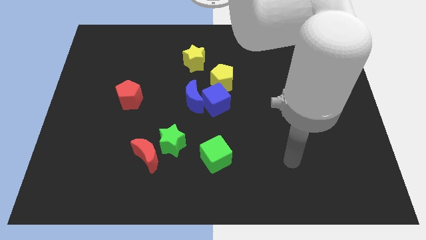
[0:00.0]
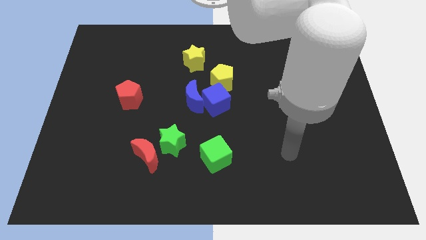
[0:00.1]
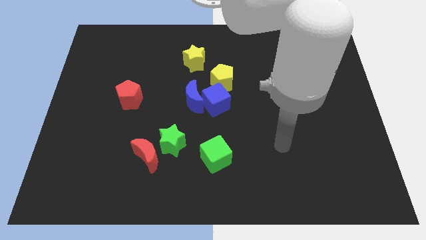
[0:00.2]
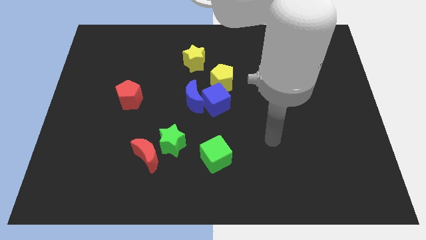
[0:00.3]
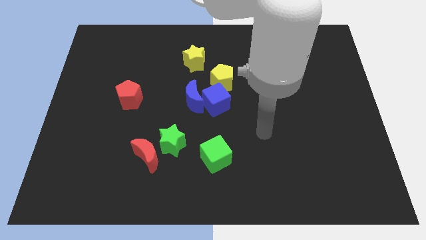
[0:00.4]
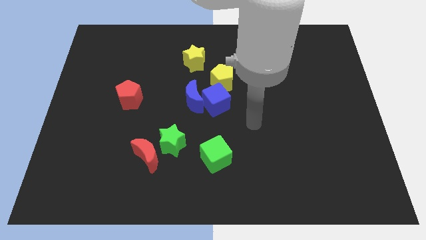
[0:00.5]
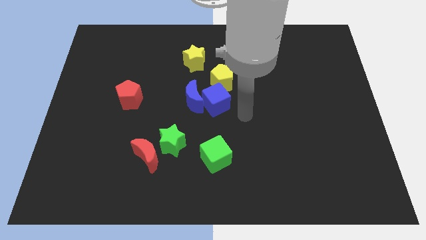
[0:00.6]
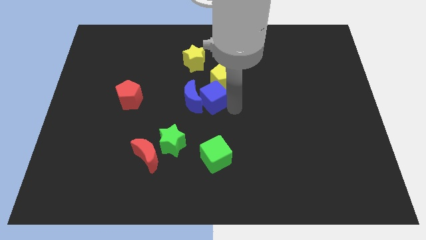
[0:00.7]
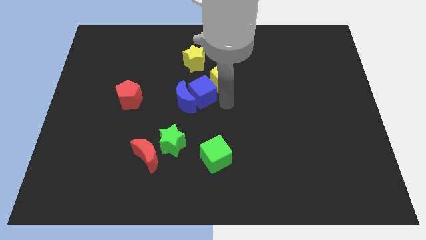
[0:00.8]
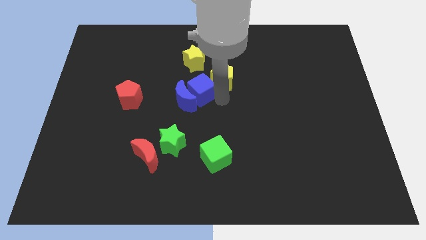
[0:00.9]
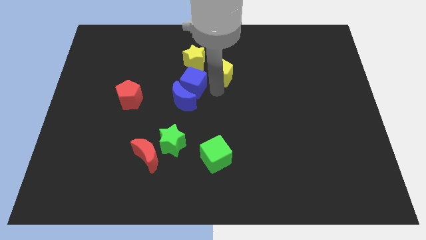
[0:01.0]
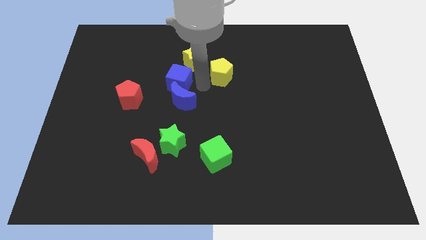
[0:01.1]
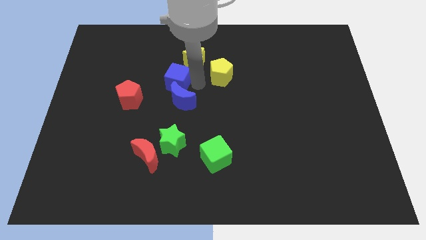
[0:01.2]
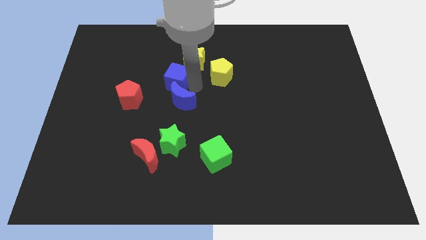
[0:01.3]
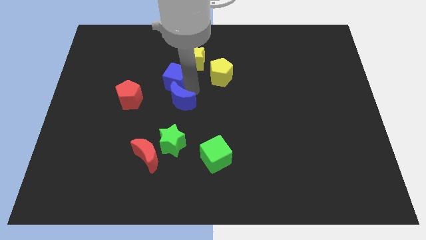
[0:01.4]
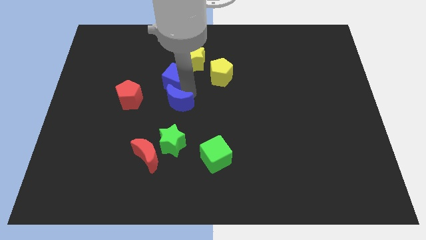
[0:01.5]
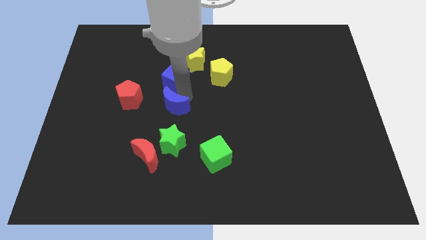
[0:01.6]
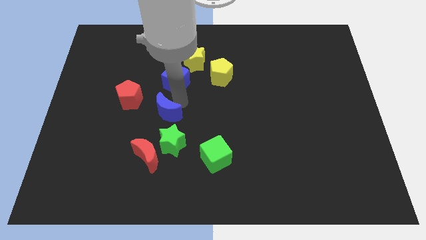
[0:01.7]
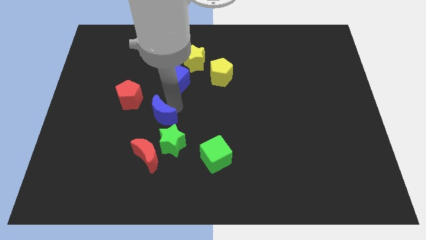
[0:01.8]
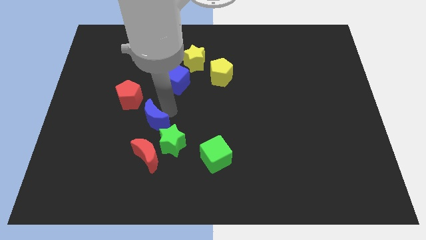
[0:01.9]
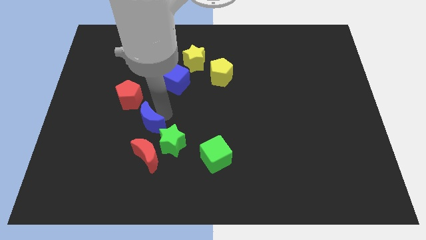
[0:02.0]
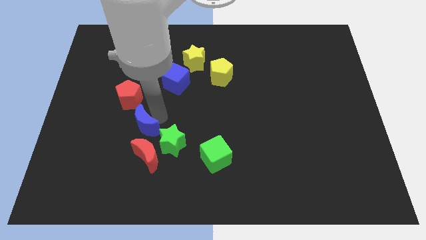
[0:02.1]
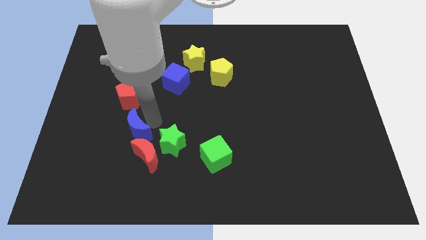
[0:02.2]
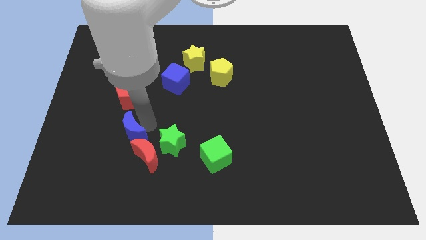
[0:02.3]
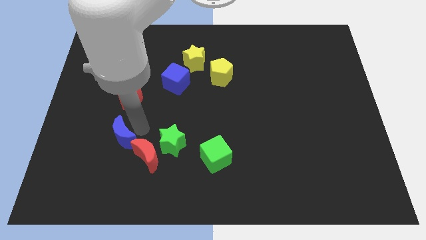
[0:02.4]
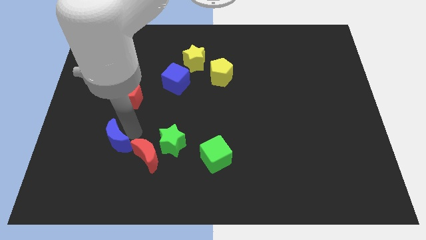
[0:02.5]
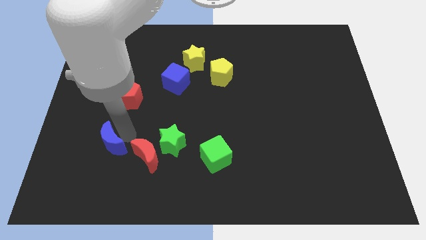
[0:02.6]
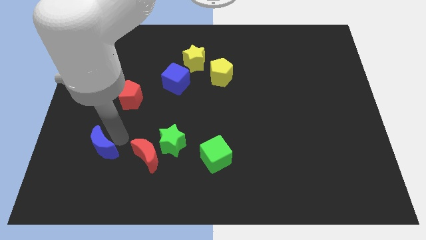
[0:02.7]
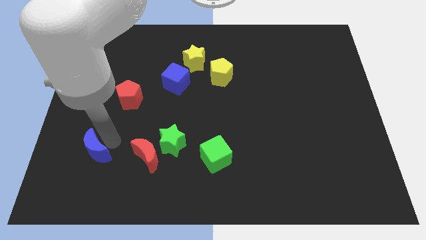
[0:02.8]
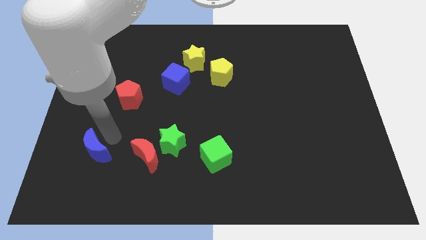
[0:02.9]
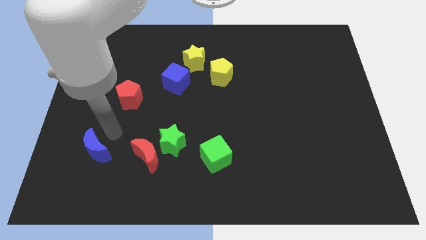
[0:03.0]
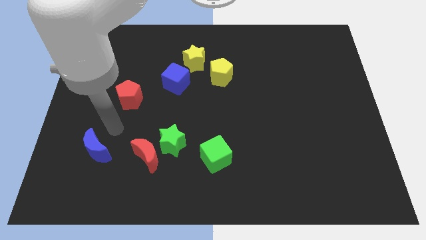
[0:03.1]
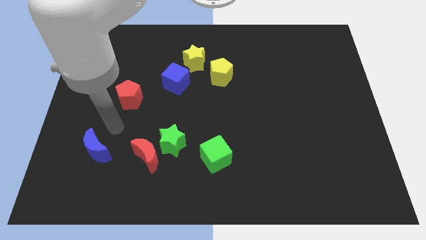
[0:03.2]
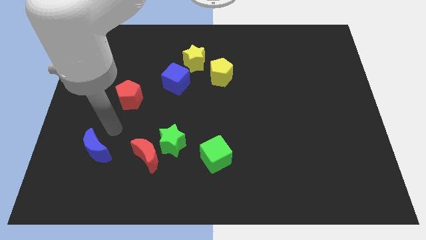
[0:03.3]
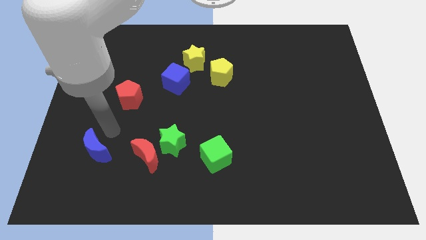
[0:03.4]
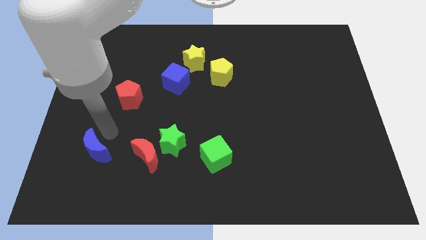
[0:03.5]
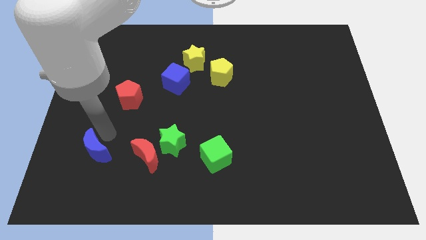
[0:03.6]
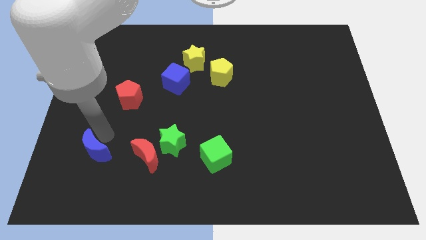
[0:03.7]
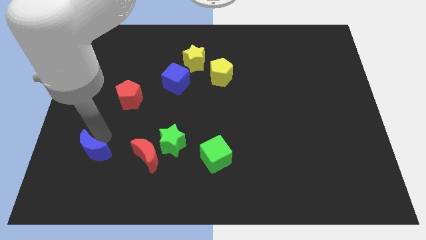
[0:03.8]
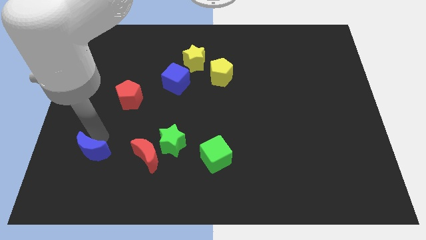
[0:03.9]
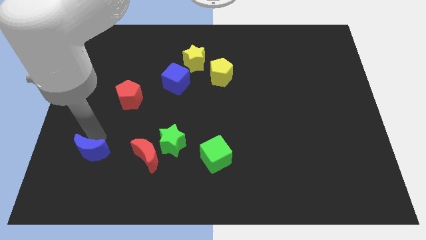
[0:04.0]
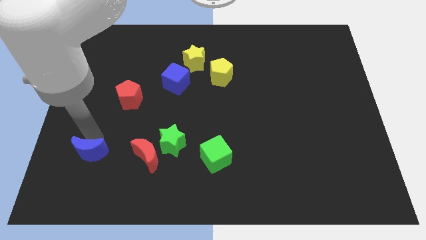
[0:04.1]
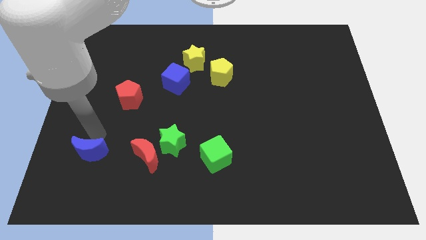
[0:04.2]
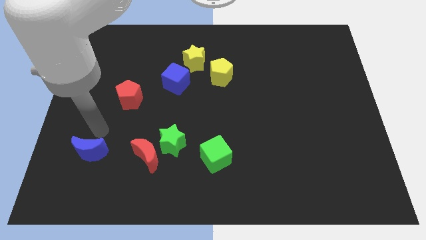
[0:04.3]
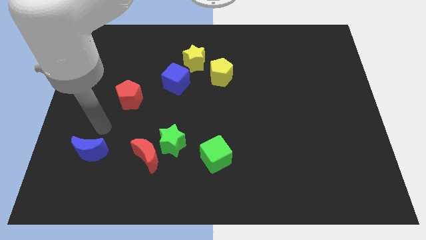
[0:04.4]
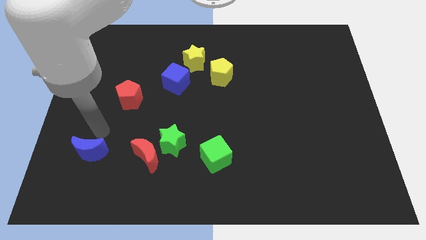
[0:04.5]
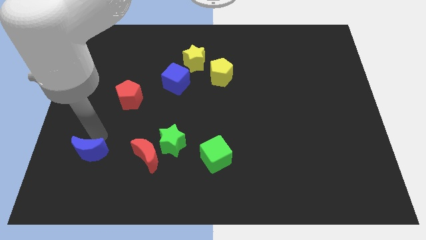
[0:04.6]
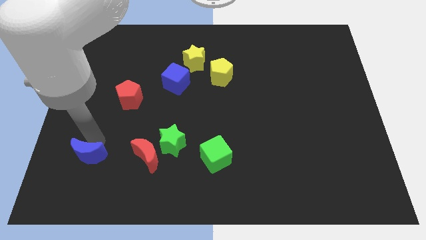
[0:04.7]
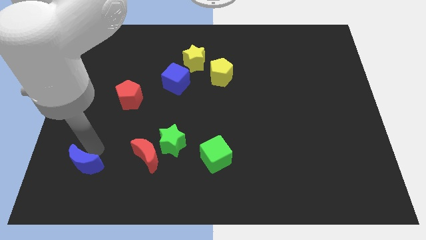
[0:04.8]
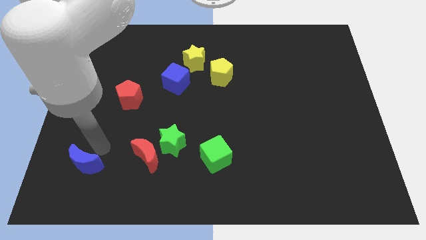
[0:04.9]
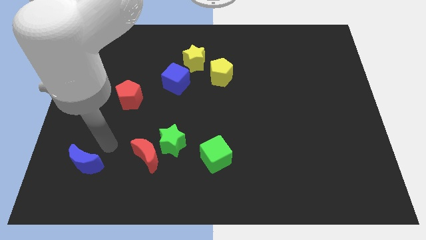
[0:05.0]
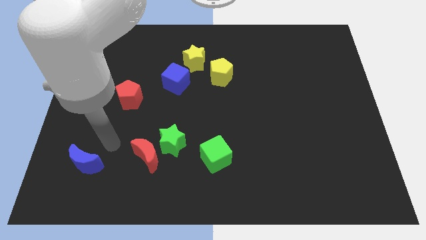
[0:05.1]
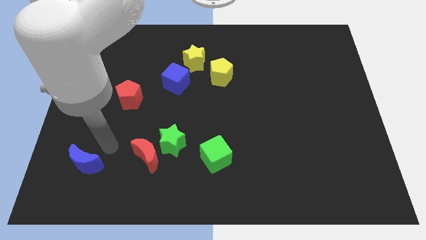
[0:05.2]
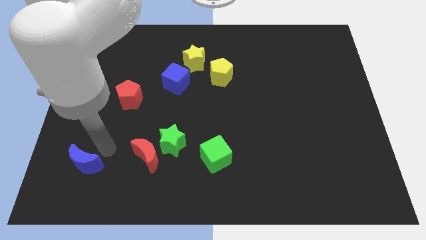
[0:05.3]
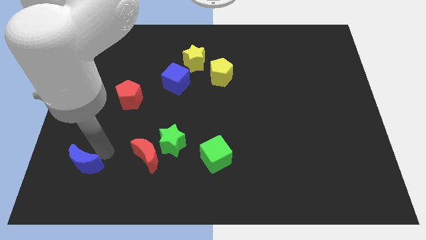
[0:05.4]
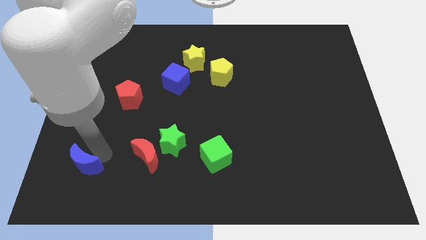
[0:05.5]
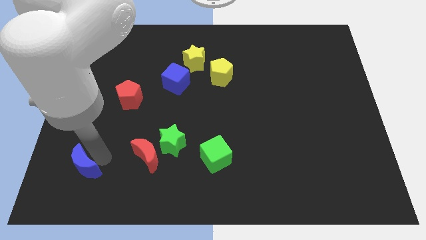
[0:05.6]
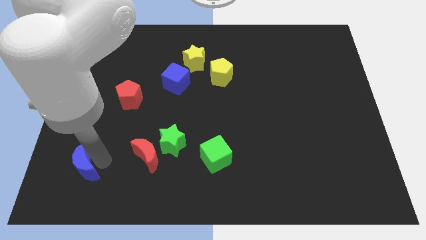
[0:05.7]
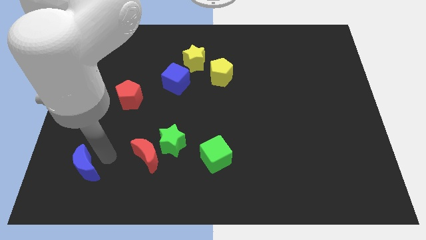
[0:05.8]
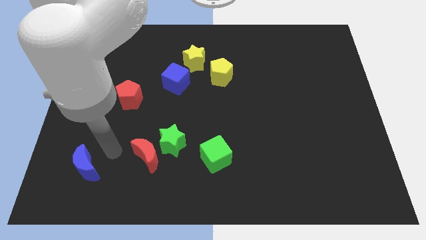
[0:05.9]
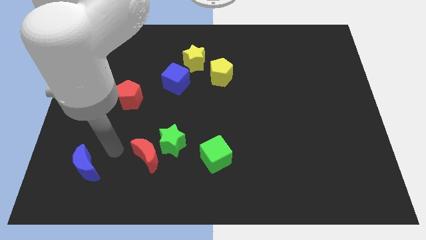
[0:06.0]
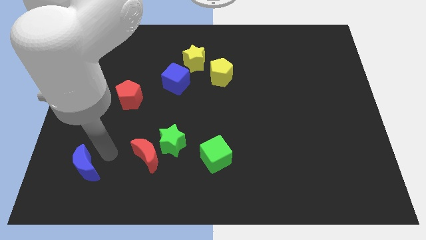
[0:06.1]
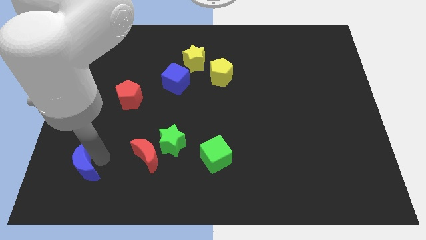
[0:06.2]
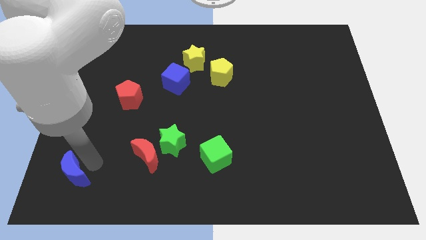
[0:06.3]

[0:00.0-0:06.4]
move the blue moon to the lower left corner
